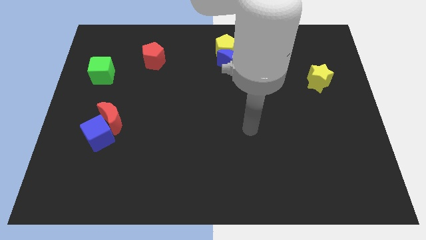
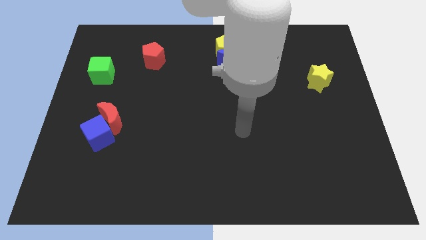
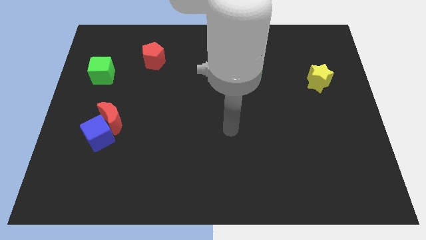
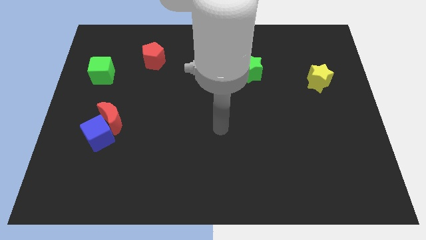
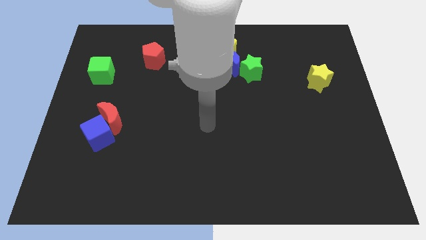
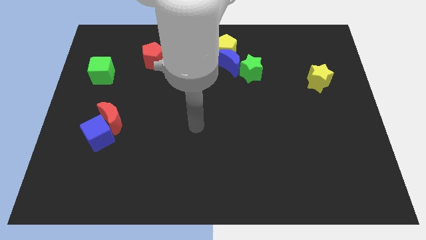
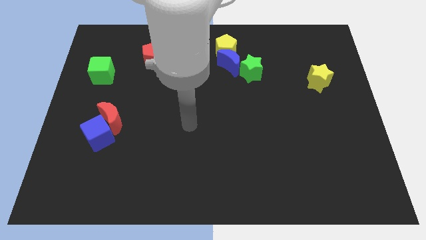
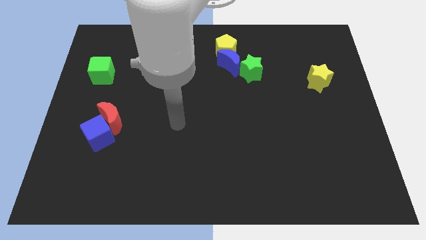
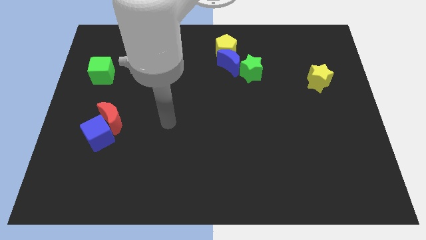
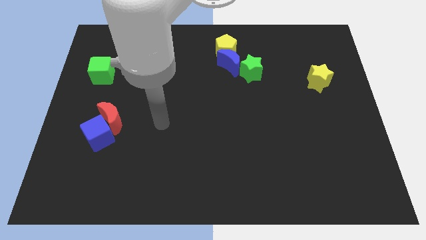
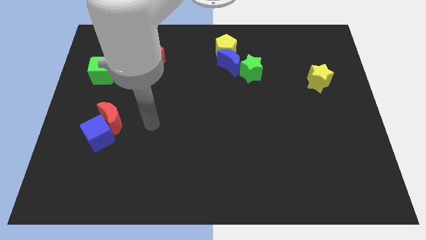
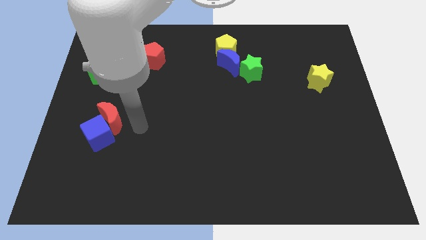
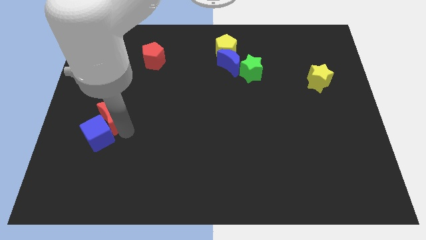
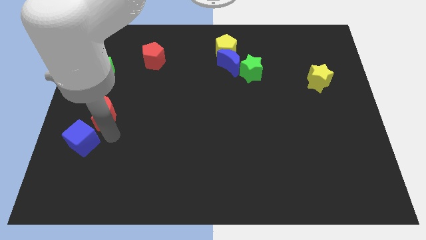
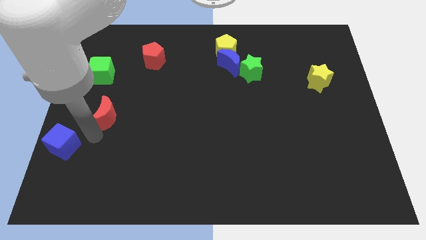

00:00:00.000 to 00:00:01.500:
move the red moon away from the blue cube

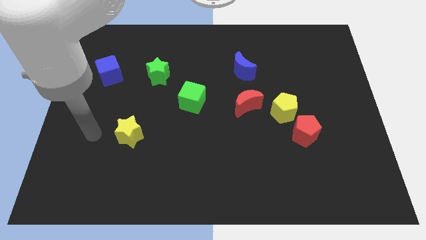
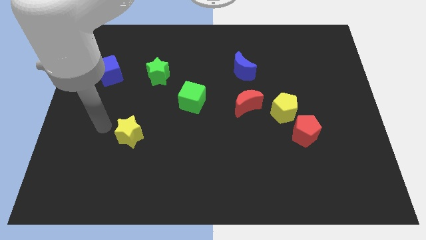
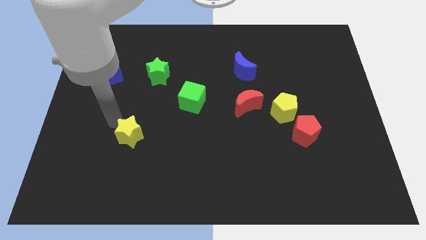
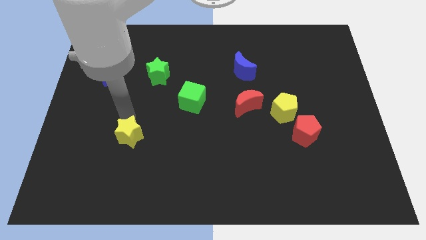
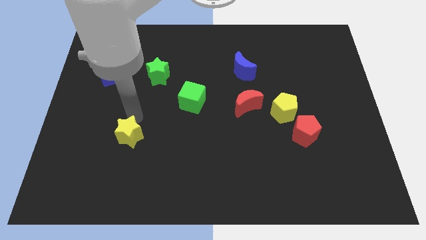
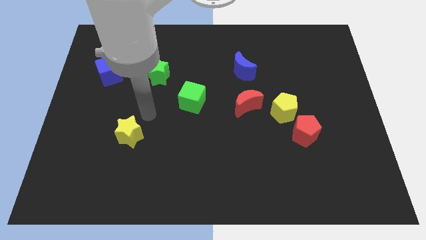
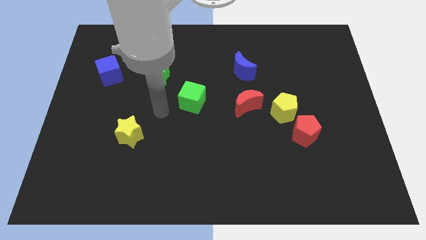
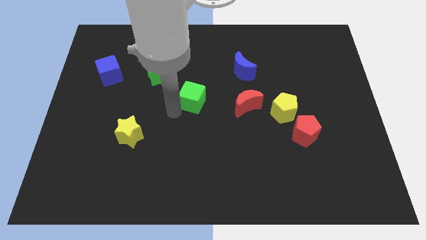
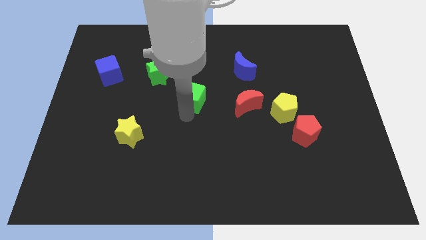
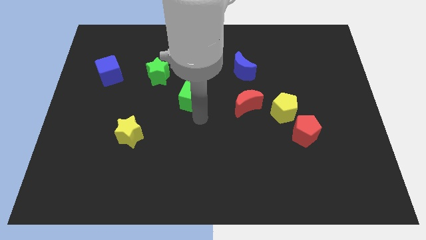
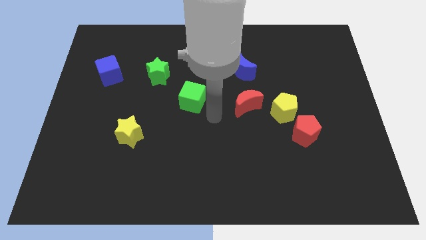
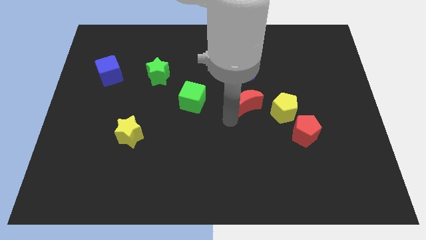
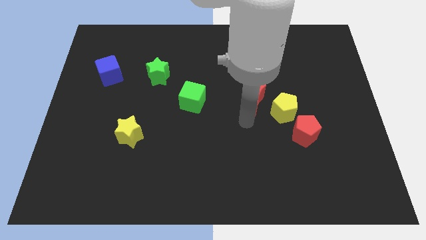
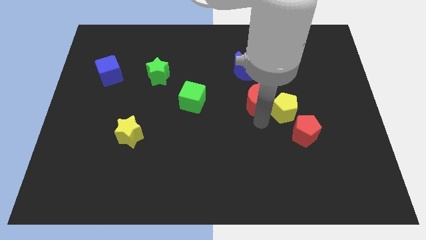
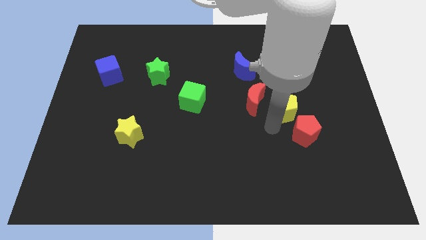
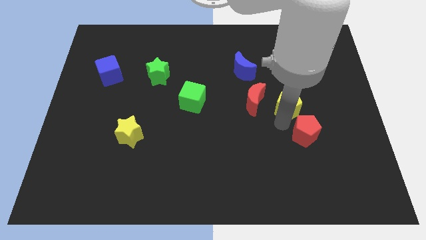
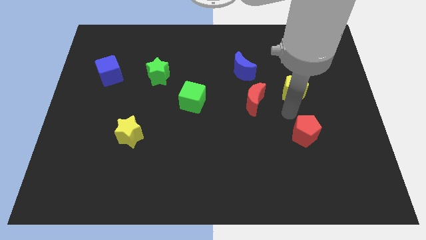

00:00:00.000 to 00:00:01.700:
separate the red pentagon from the yellow pentagon

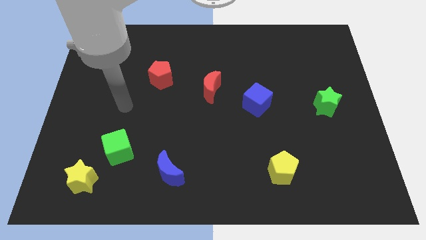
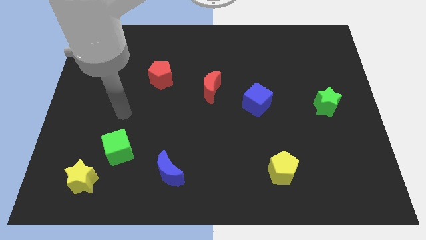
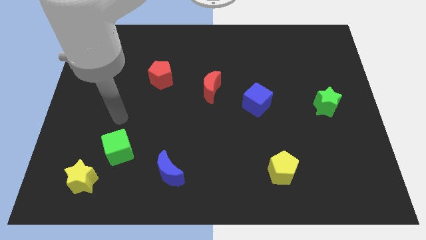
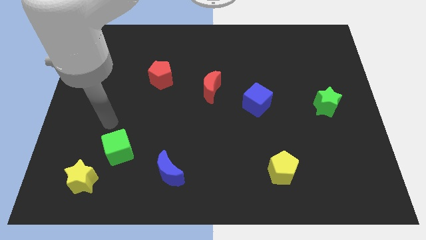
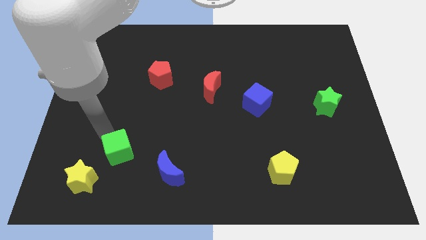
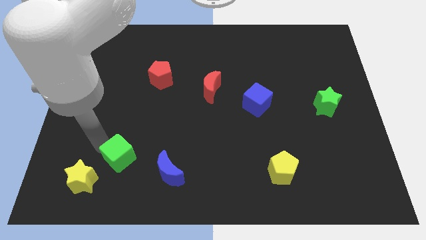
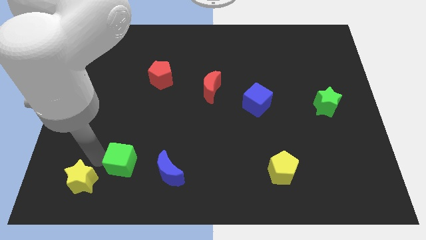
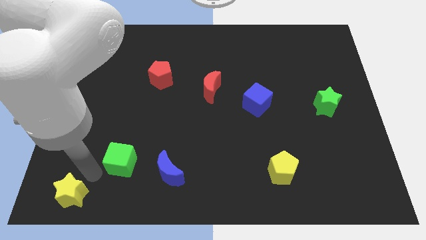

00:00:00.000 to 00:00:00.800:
move the green cube away from the yellow star

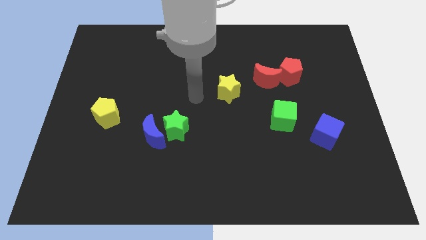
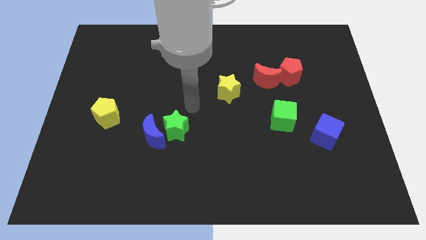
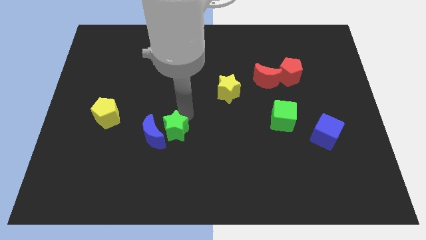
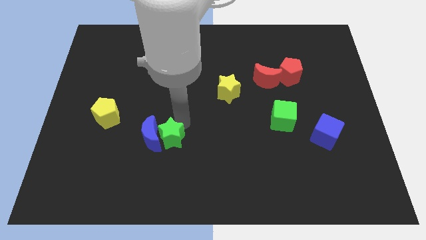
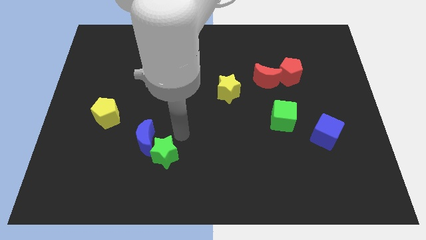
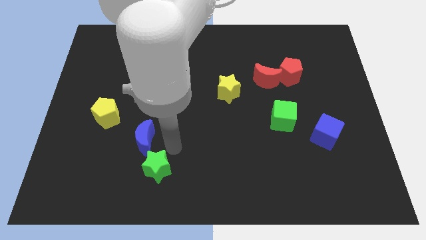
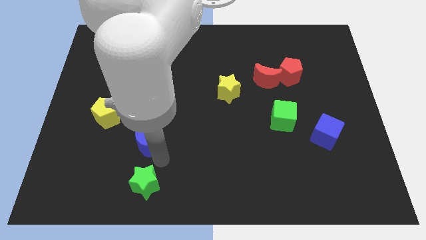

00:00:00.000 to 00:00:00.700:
separate the blue moon from the green star

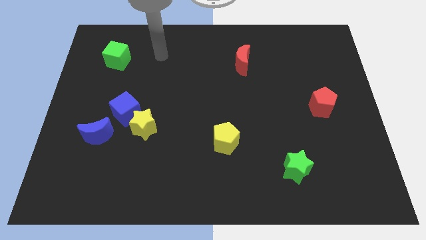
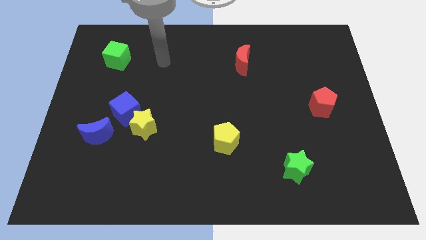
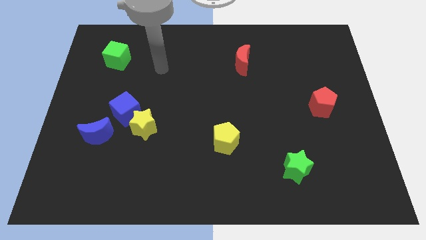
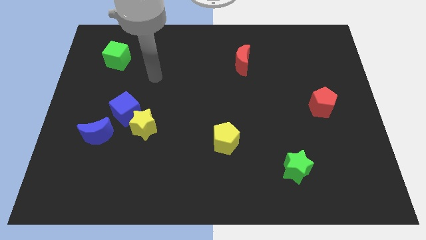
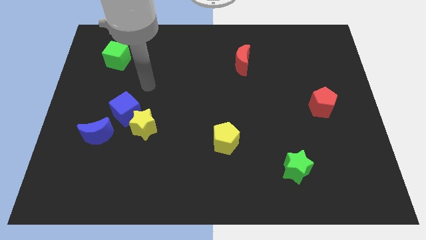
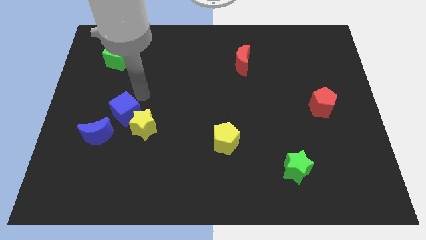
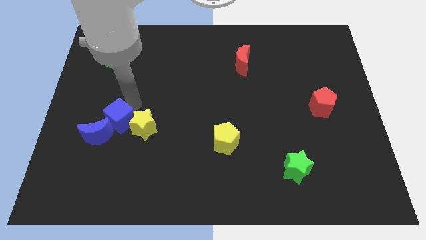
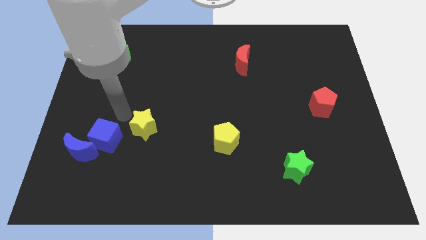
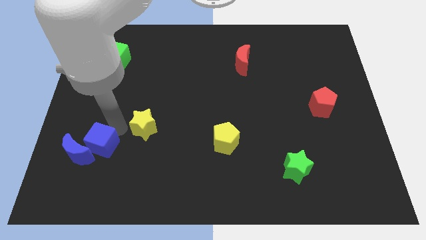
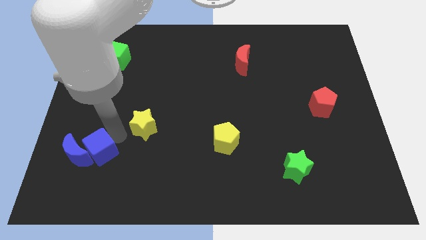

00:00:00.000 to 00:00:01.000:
move the yellow star away from the blue cube

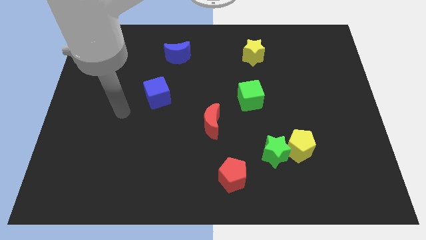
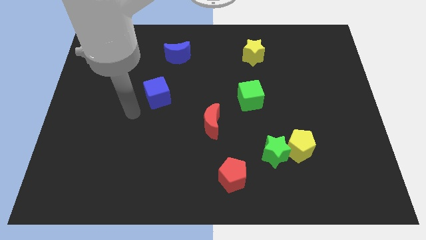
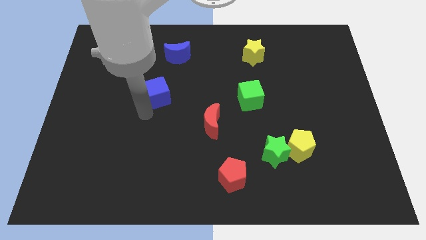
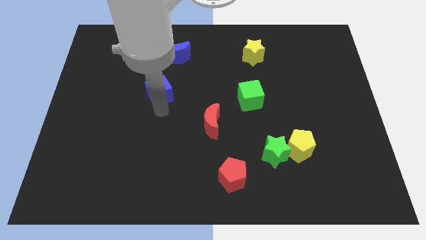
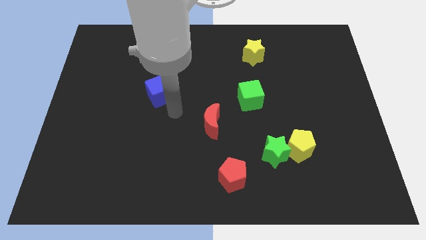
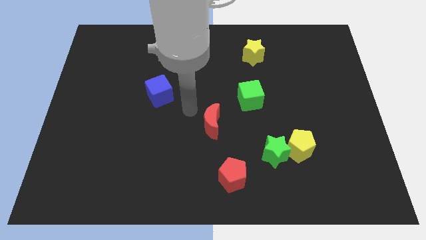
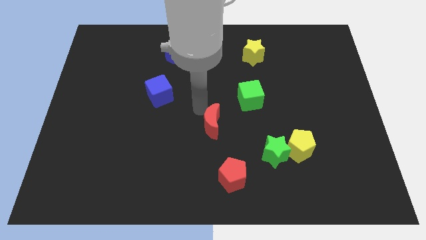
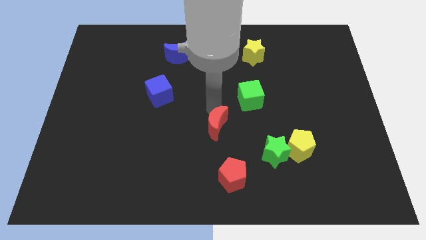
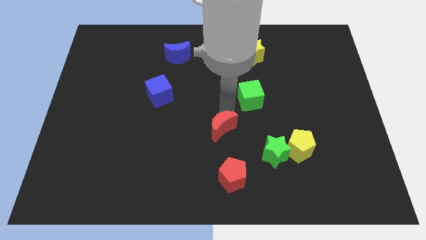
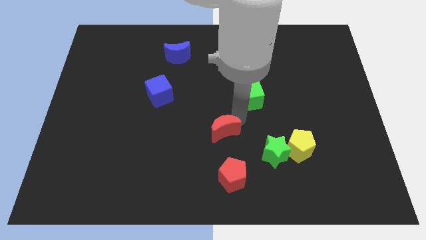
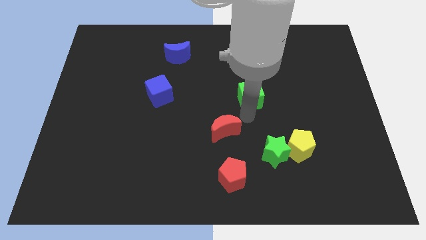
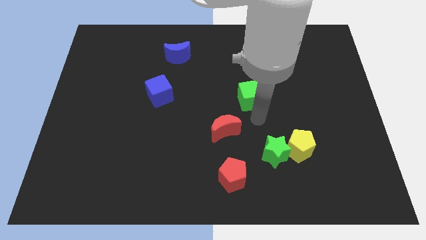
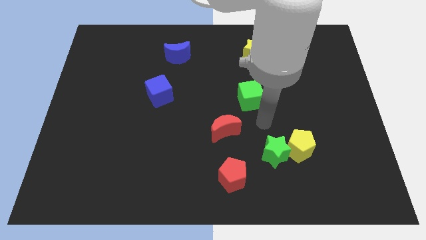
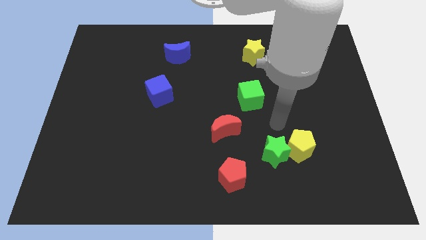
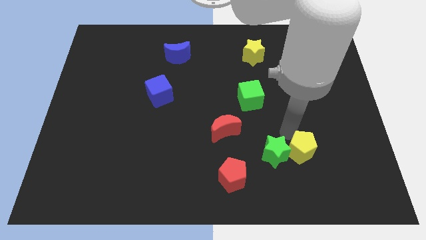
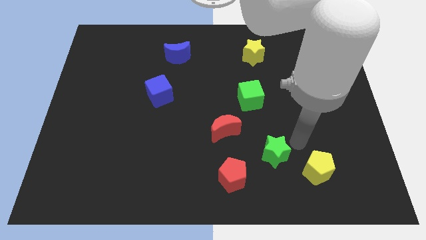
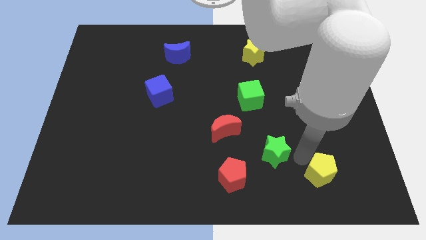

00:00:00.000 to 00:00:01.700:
pull the green star apart from the yellow pentagon

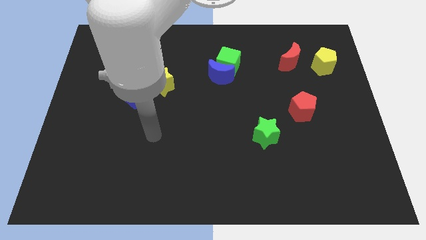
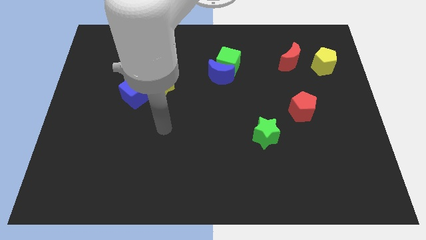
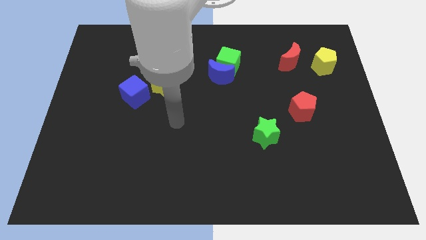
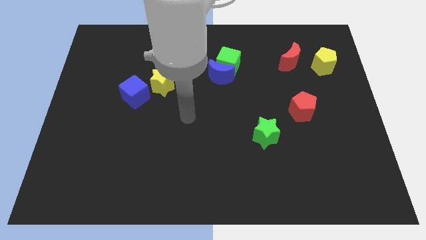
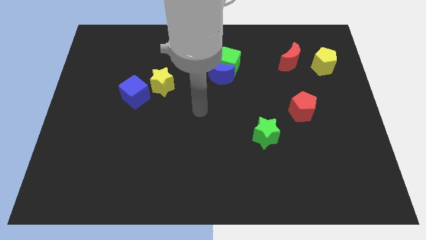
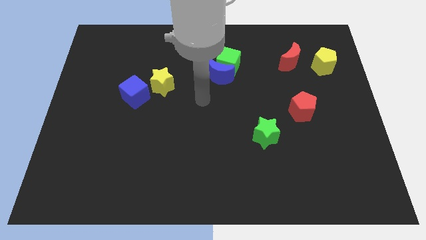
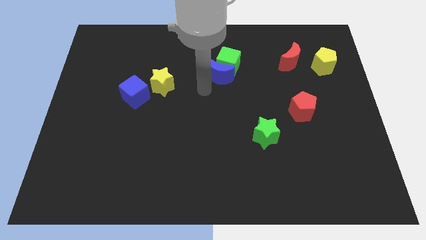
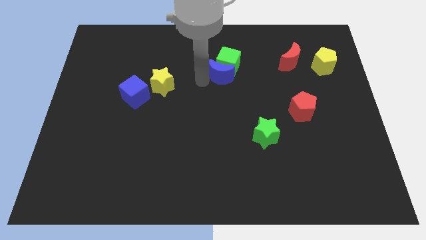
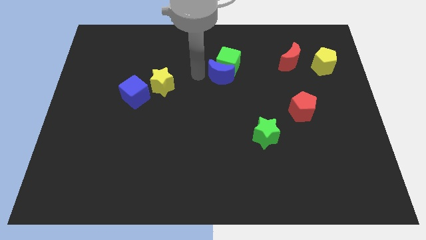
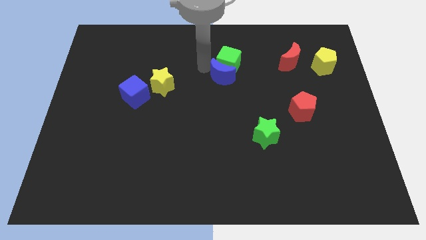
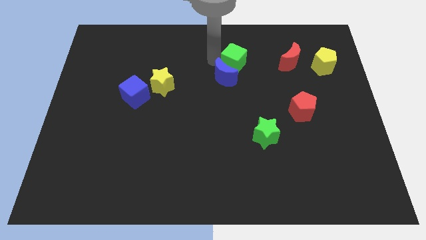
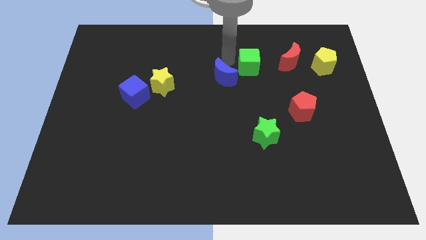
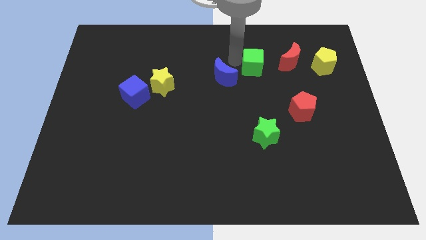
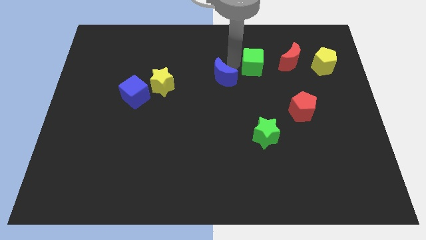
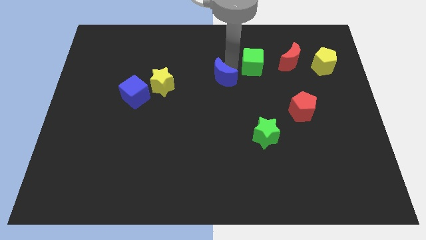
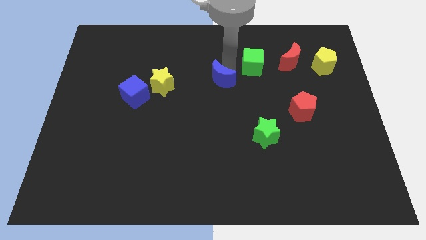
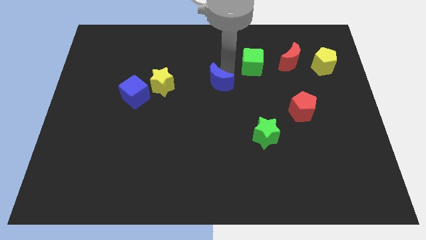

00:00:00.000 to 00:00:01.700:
pull the blue moon apart from the green cube

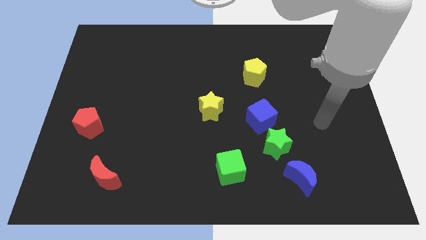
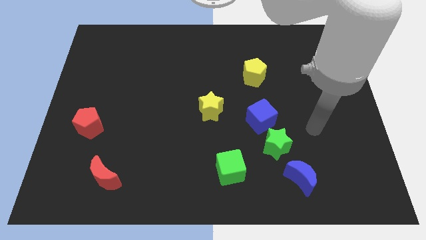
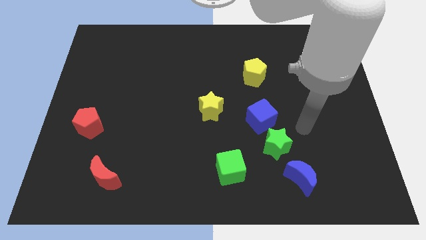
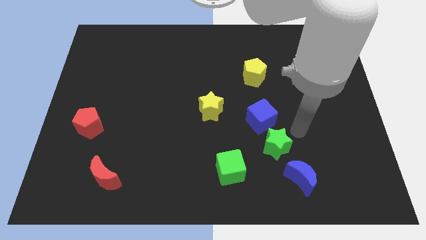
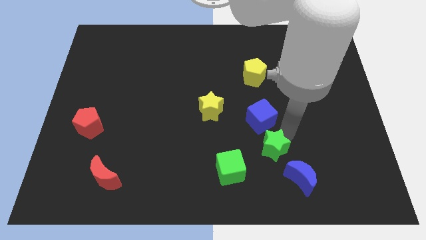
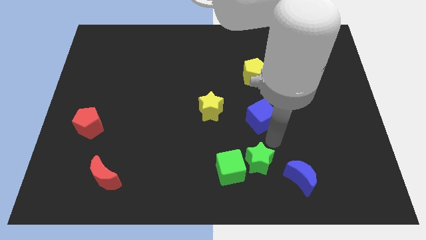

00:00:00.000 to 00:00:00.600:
separate the blue cube from the green star
